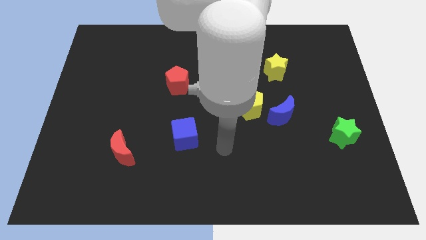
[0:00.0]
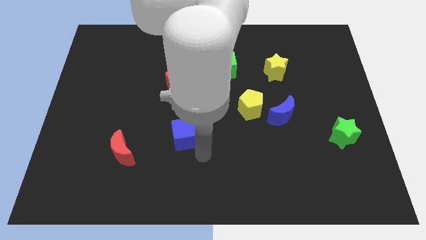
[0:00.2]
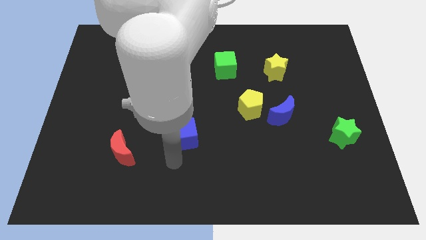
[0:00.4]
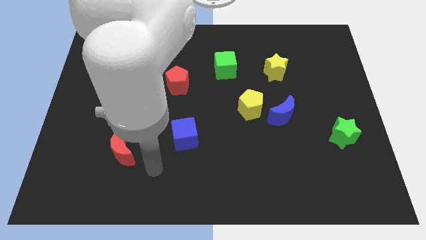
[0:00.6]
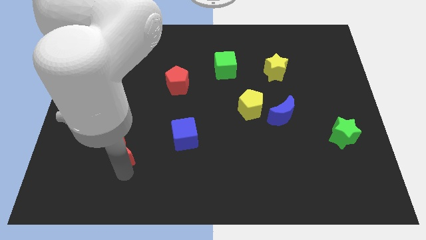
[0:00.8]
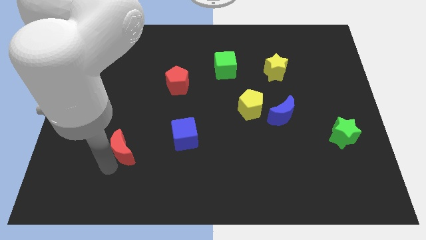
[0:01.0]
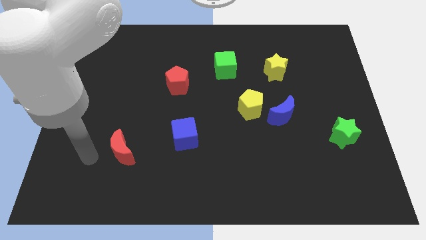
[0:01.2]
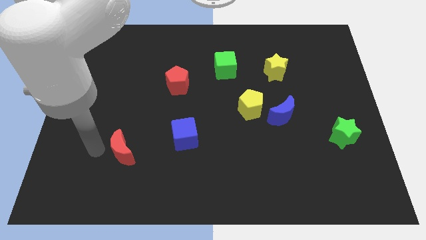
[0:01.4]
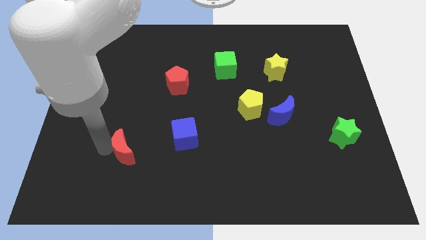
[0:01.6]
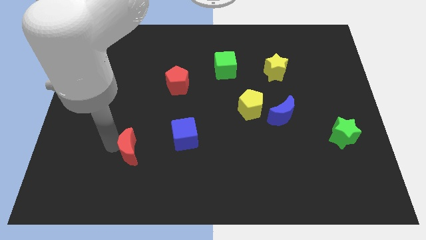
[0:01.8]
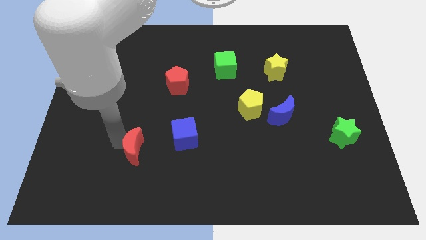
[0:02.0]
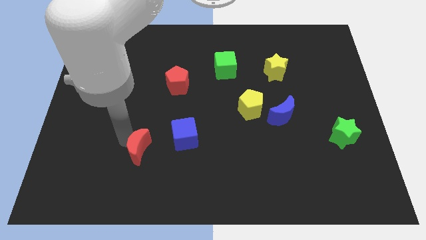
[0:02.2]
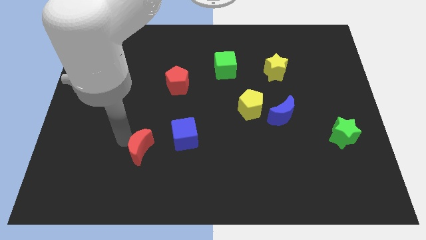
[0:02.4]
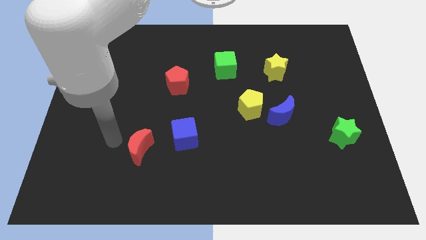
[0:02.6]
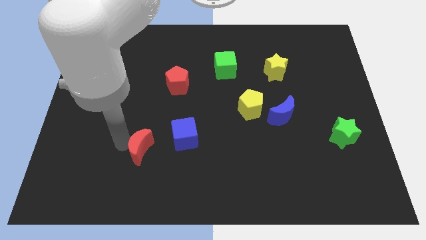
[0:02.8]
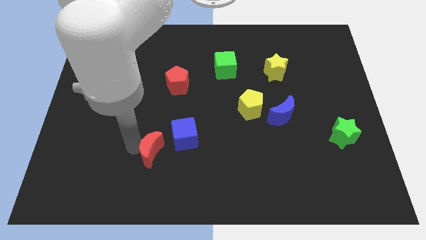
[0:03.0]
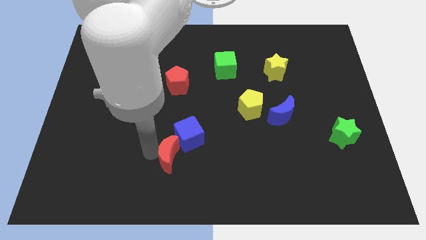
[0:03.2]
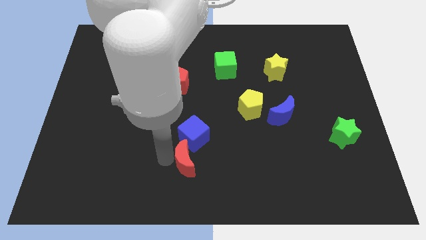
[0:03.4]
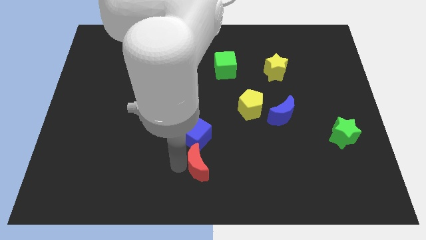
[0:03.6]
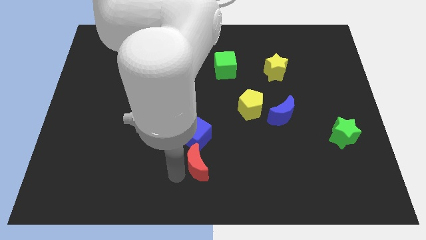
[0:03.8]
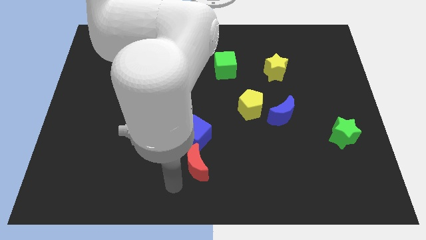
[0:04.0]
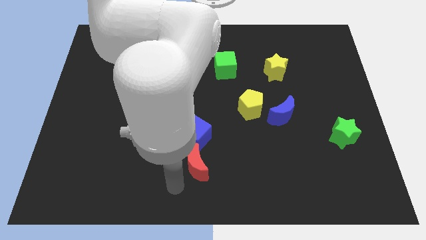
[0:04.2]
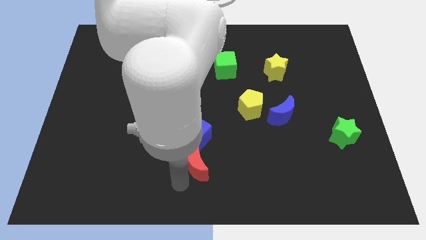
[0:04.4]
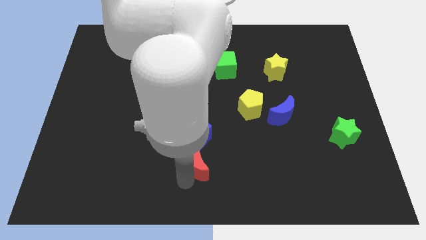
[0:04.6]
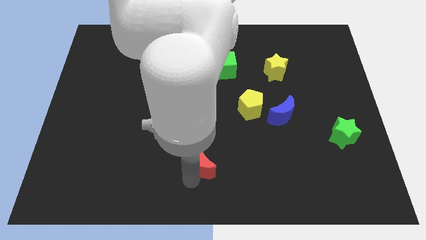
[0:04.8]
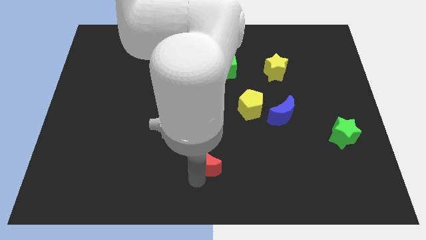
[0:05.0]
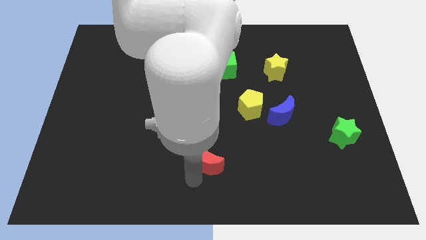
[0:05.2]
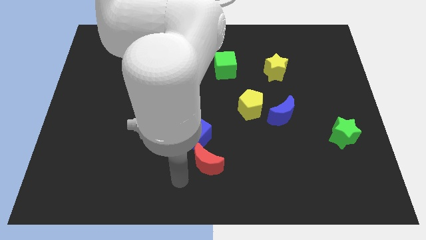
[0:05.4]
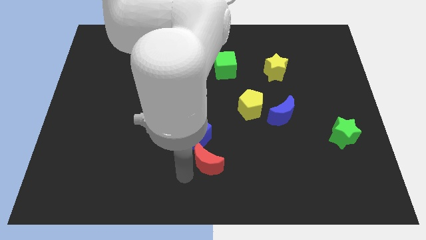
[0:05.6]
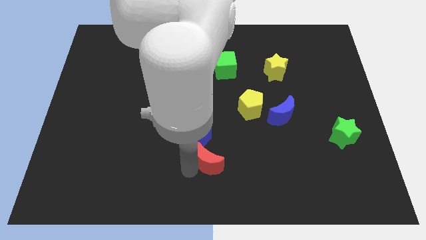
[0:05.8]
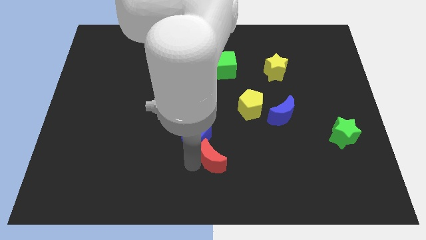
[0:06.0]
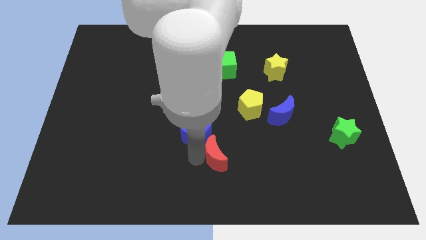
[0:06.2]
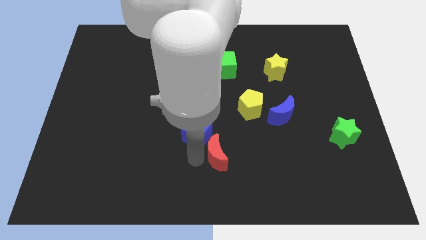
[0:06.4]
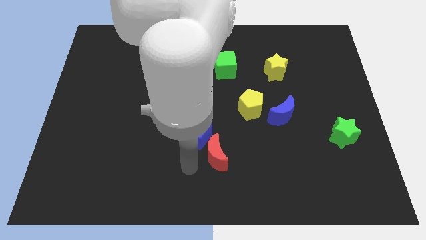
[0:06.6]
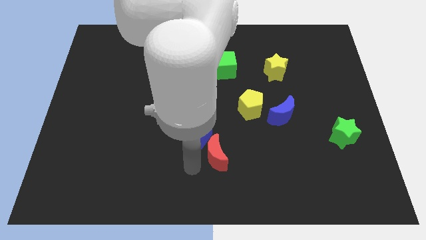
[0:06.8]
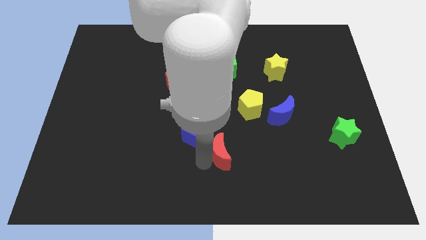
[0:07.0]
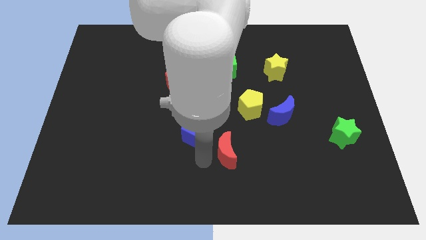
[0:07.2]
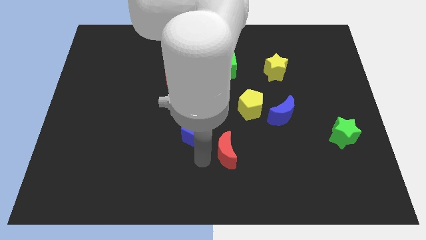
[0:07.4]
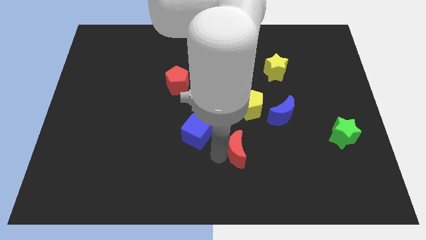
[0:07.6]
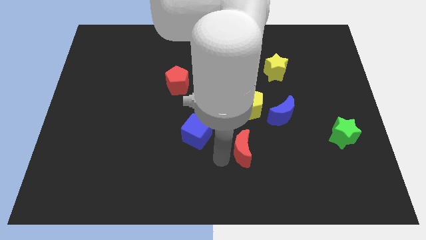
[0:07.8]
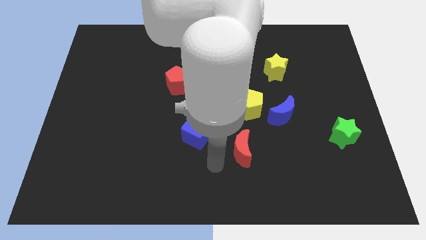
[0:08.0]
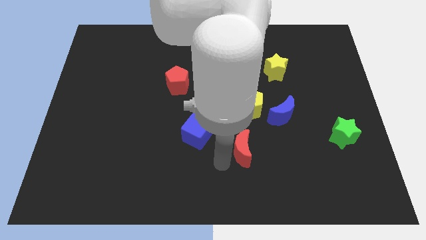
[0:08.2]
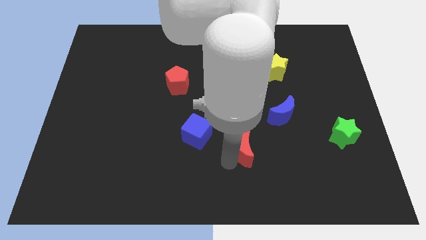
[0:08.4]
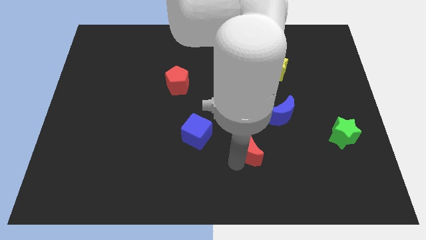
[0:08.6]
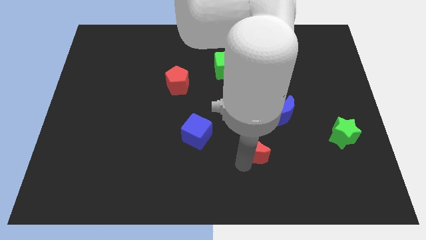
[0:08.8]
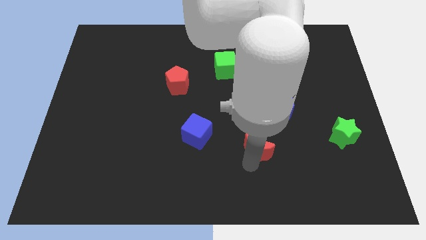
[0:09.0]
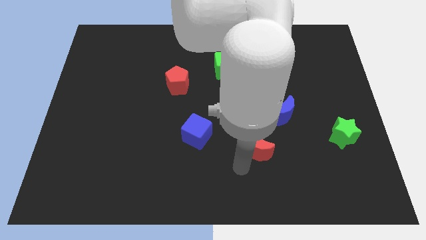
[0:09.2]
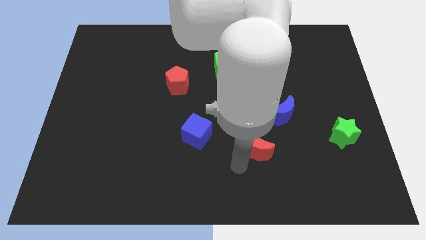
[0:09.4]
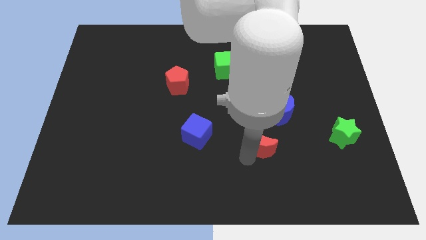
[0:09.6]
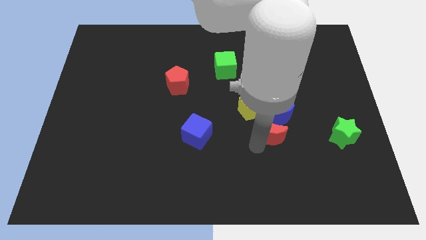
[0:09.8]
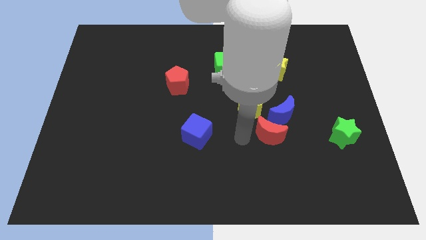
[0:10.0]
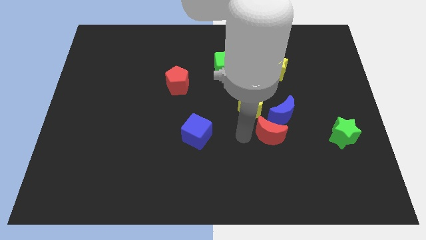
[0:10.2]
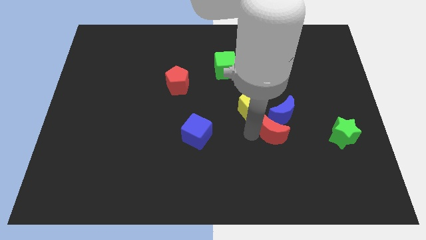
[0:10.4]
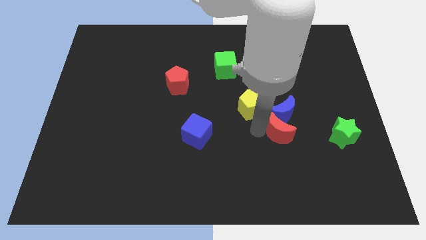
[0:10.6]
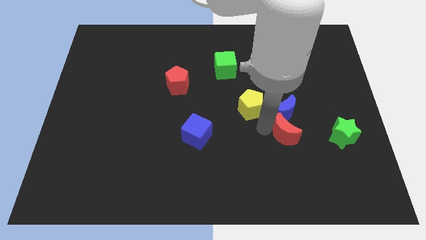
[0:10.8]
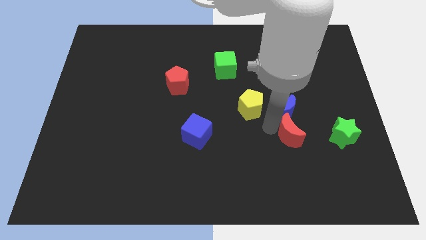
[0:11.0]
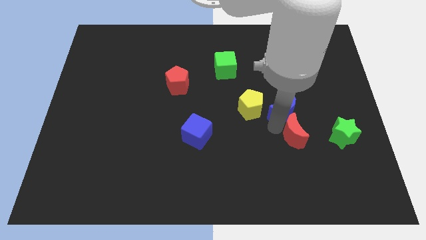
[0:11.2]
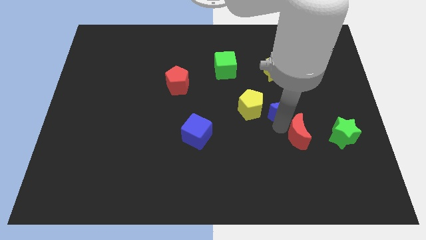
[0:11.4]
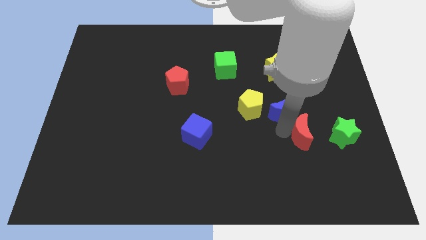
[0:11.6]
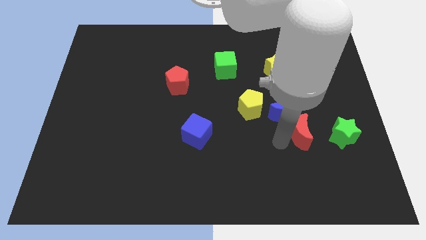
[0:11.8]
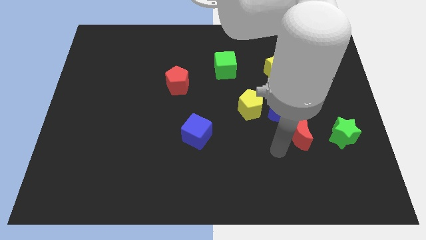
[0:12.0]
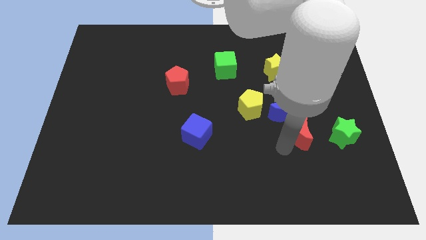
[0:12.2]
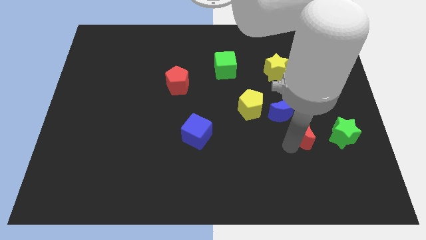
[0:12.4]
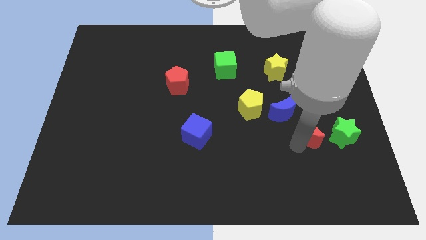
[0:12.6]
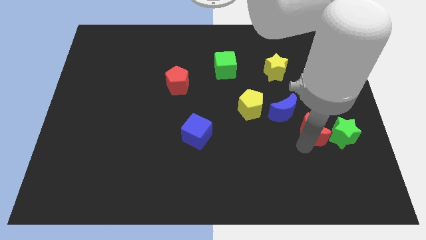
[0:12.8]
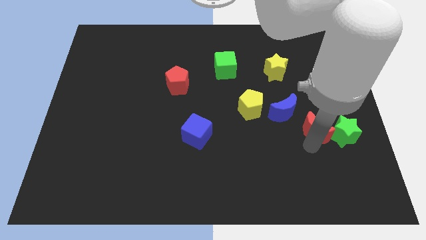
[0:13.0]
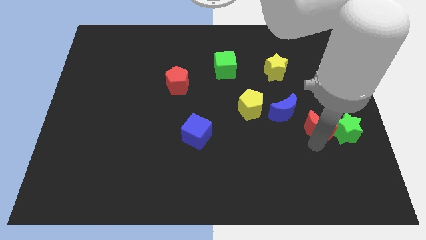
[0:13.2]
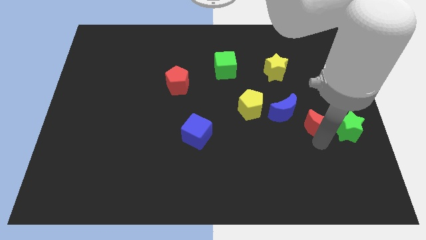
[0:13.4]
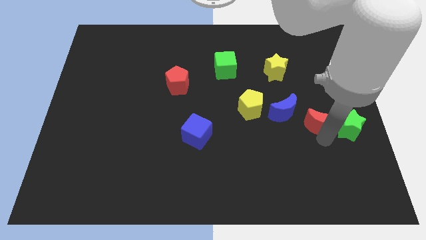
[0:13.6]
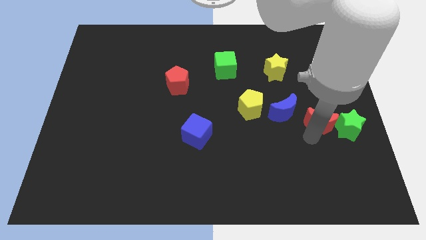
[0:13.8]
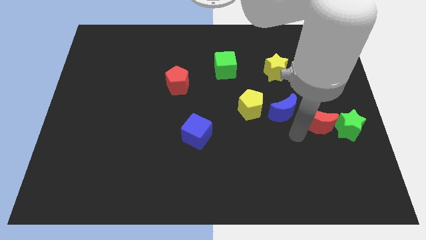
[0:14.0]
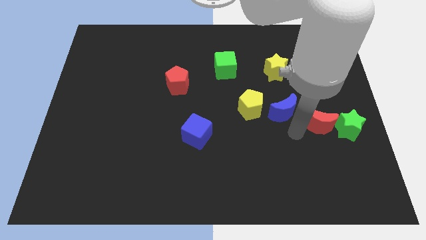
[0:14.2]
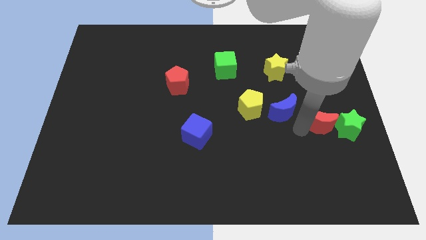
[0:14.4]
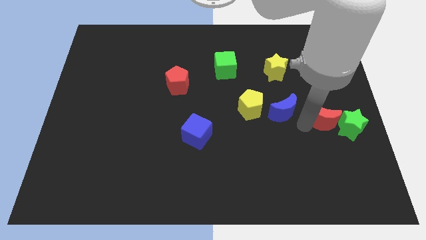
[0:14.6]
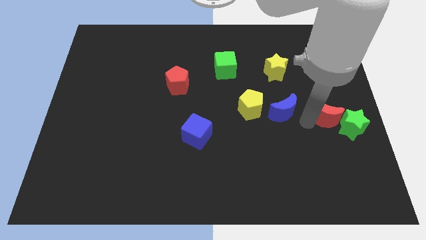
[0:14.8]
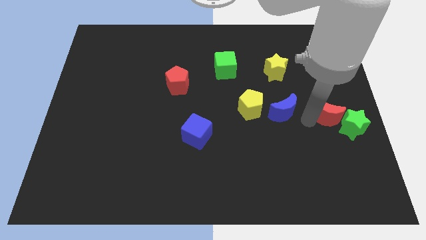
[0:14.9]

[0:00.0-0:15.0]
put the red moon to the right side
